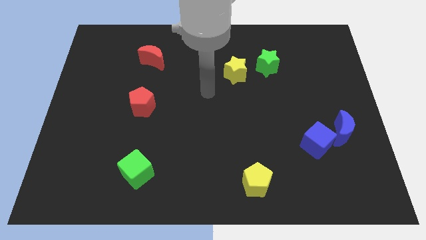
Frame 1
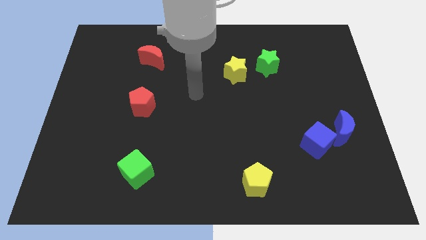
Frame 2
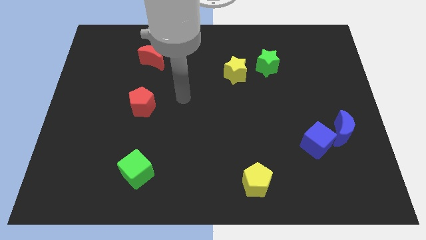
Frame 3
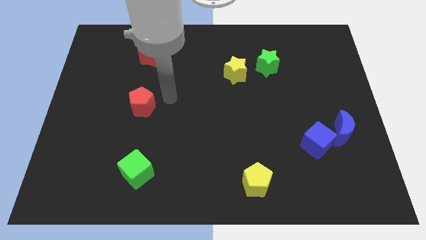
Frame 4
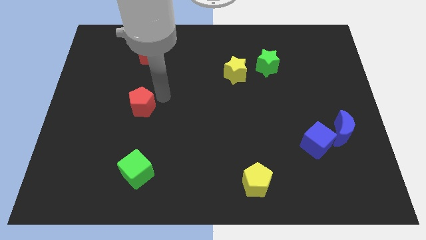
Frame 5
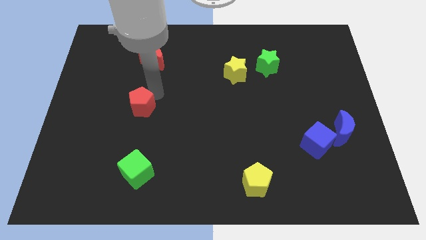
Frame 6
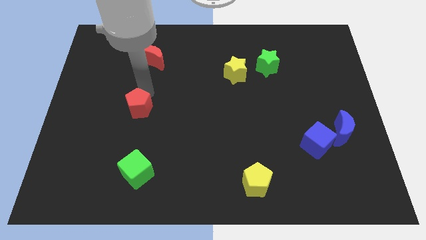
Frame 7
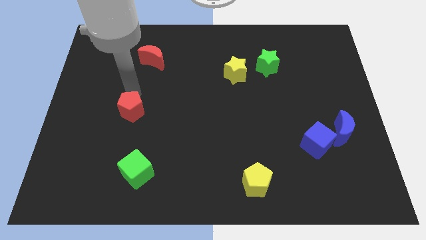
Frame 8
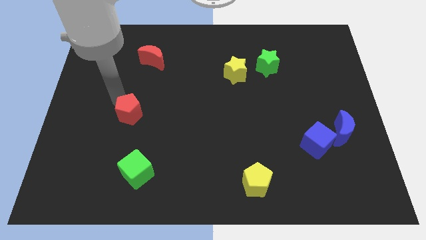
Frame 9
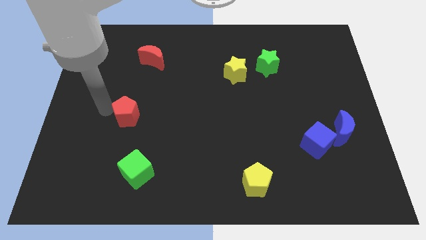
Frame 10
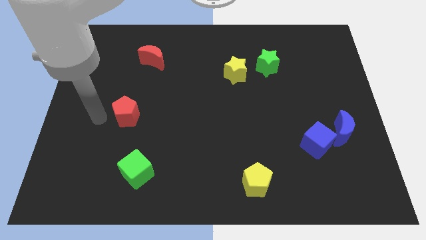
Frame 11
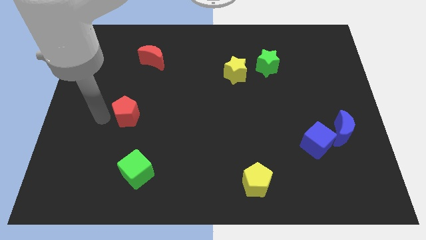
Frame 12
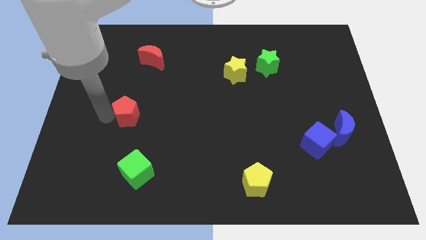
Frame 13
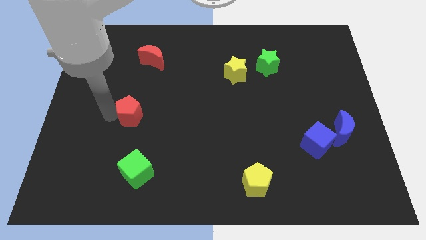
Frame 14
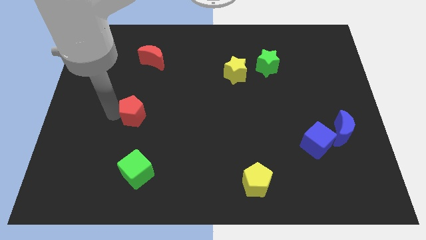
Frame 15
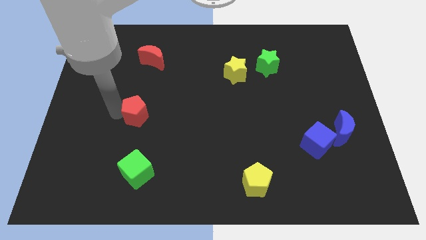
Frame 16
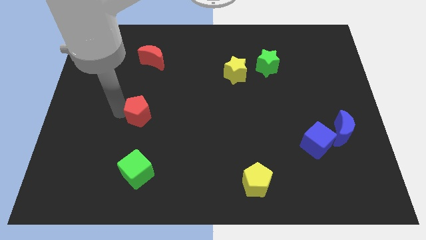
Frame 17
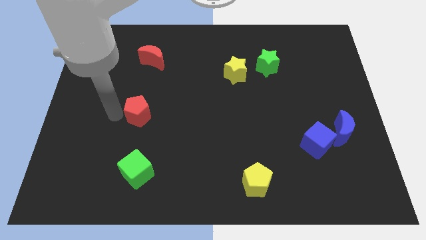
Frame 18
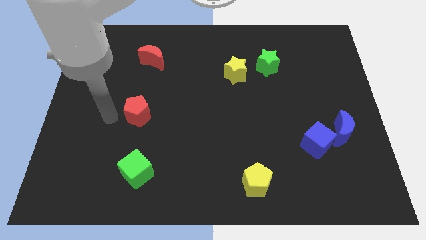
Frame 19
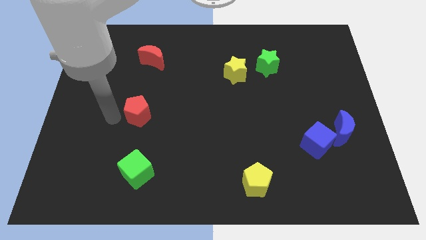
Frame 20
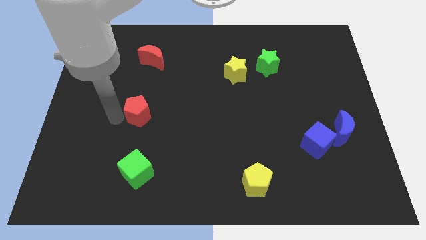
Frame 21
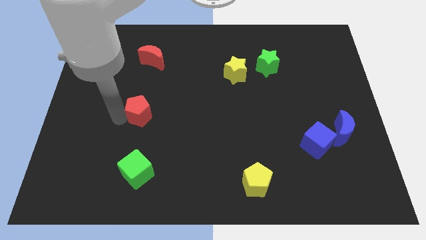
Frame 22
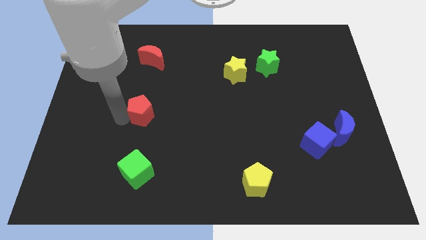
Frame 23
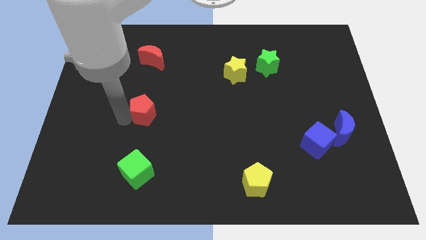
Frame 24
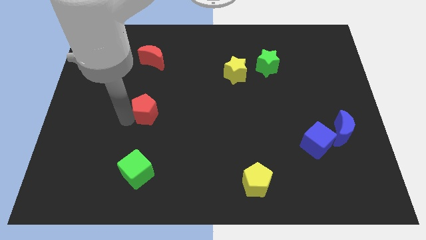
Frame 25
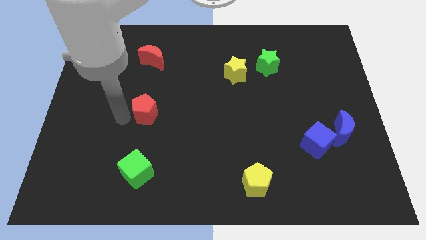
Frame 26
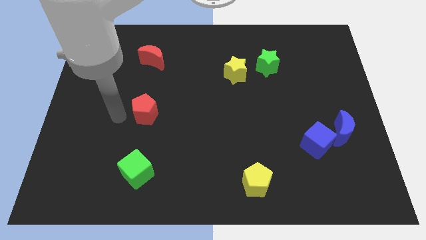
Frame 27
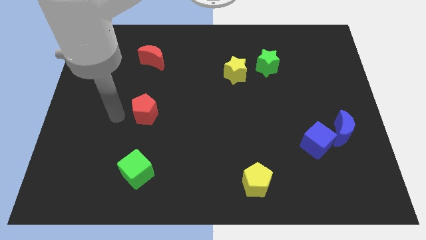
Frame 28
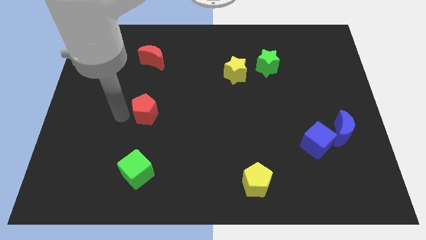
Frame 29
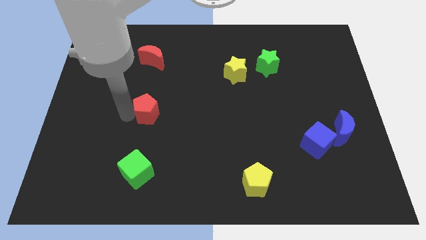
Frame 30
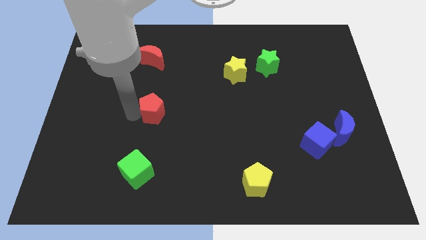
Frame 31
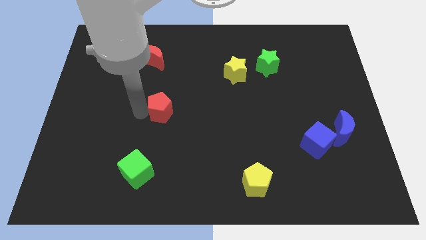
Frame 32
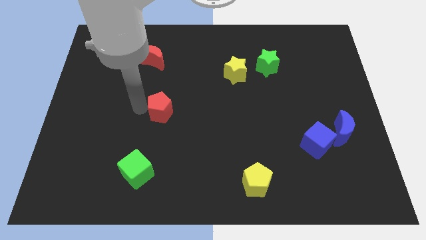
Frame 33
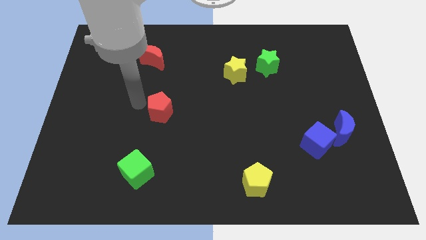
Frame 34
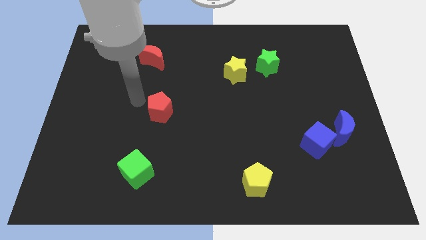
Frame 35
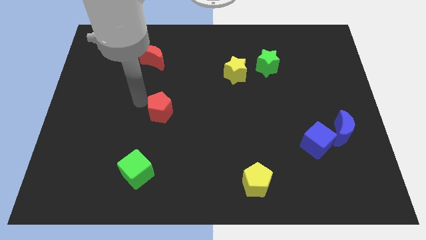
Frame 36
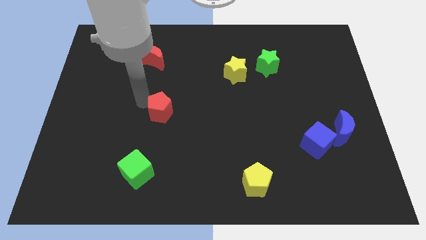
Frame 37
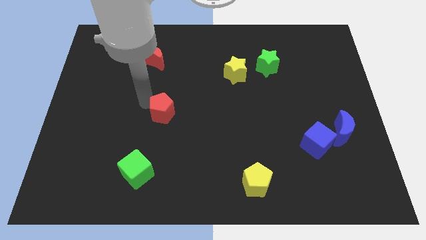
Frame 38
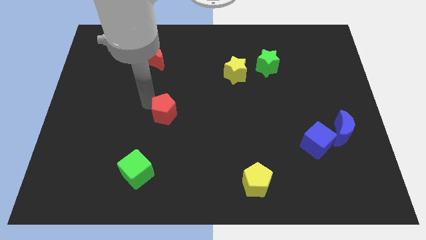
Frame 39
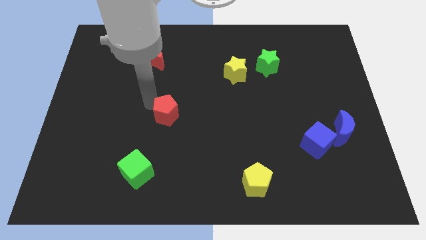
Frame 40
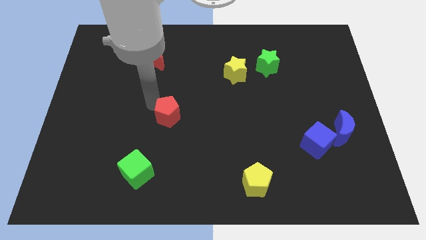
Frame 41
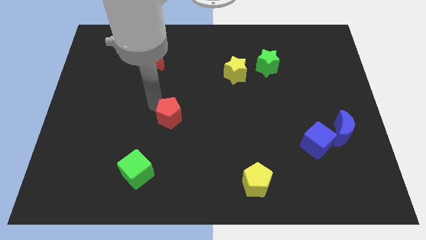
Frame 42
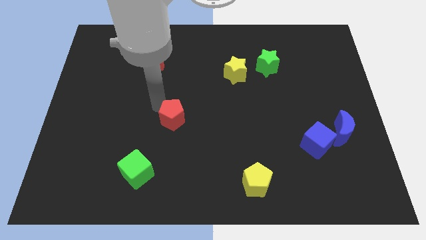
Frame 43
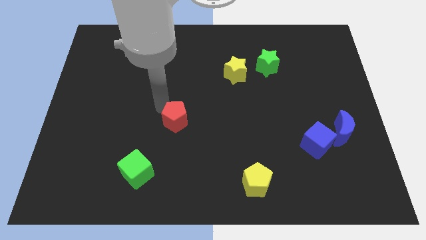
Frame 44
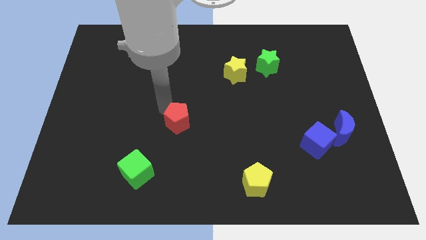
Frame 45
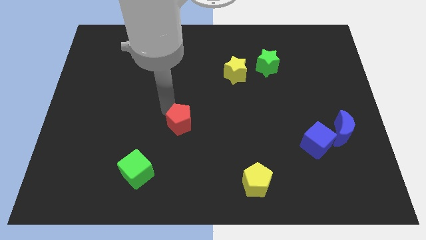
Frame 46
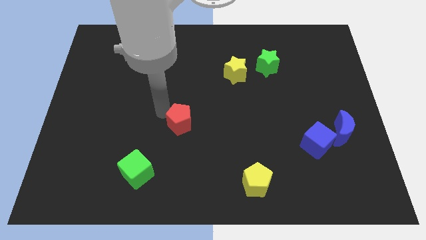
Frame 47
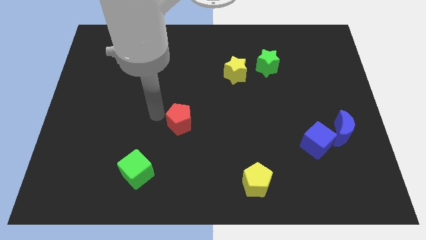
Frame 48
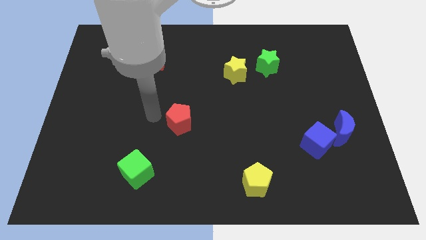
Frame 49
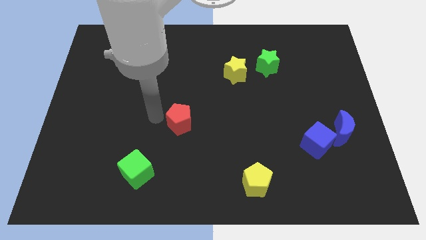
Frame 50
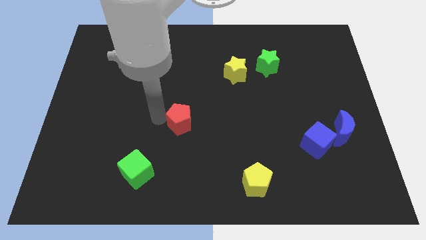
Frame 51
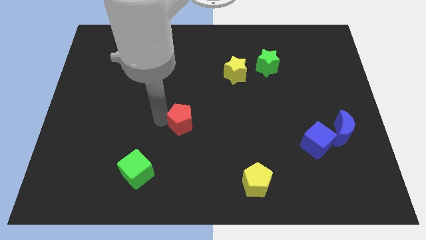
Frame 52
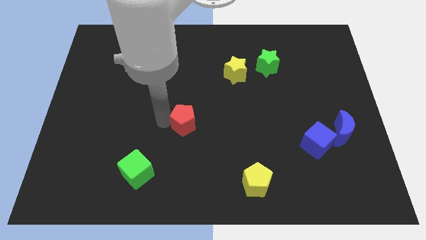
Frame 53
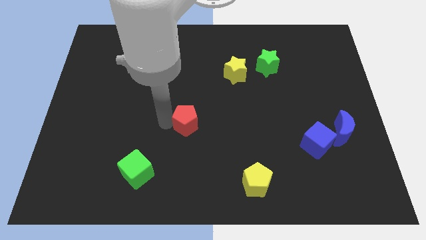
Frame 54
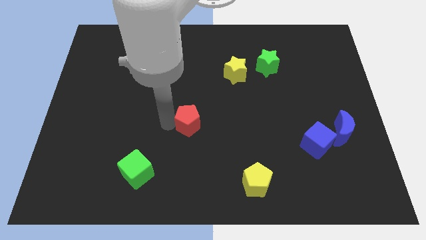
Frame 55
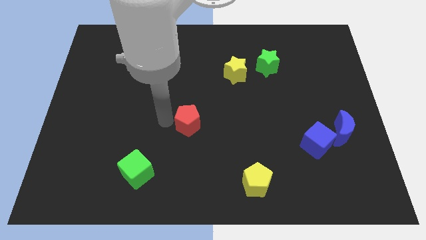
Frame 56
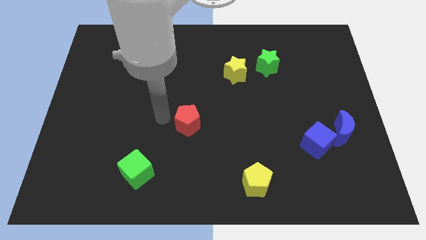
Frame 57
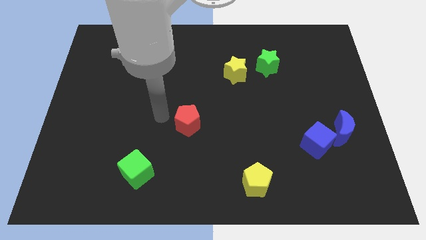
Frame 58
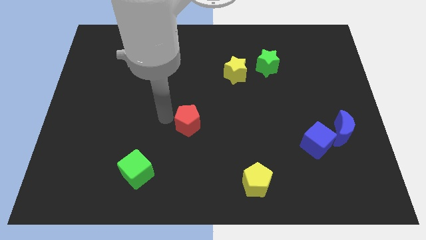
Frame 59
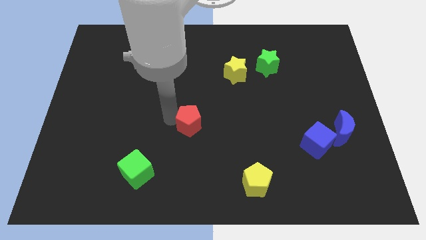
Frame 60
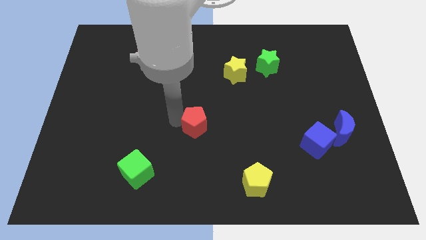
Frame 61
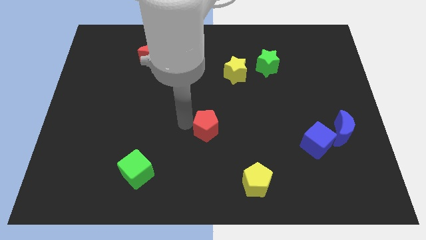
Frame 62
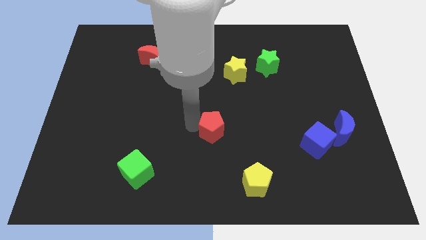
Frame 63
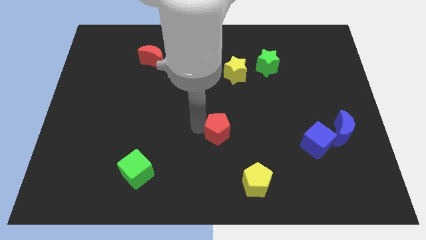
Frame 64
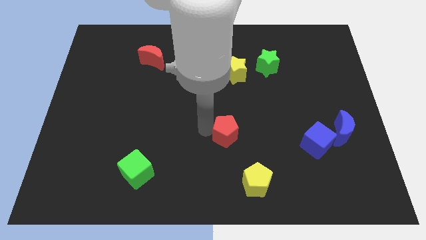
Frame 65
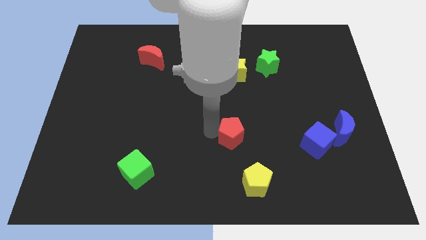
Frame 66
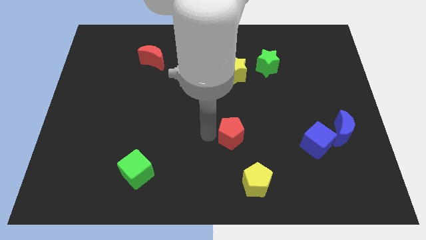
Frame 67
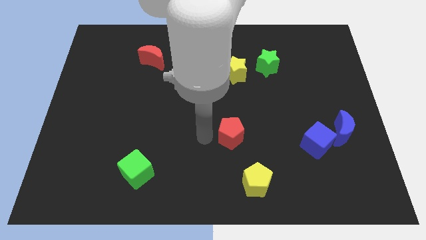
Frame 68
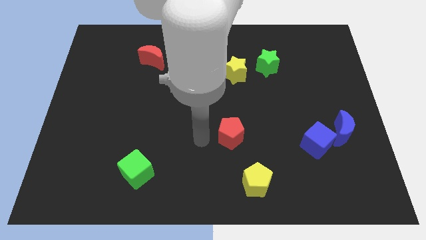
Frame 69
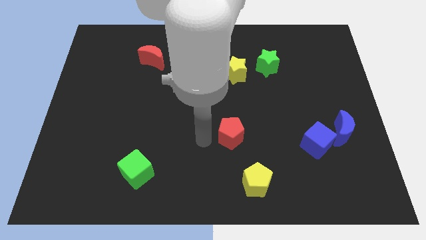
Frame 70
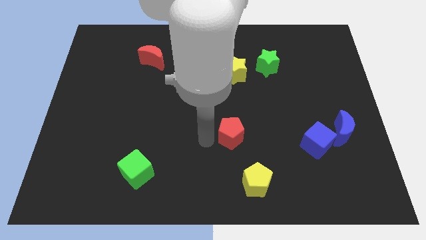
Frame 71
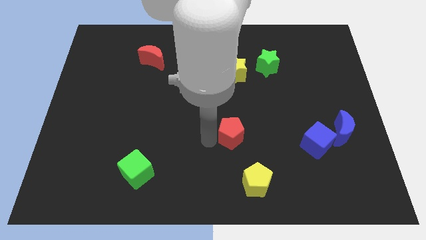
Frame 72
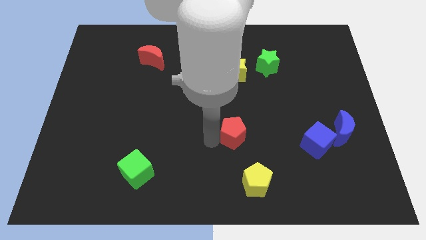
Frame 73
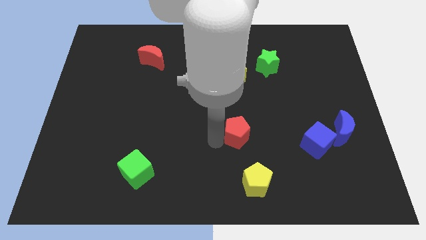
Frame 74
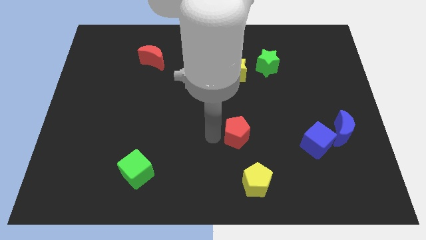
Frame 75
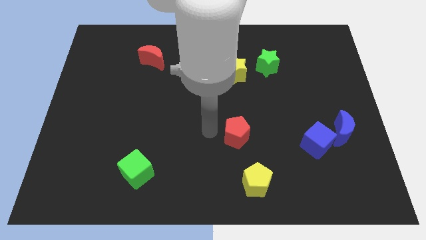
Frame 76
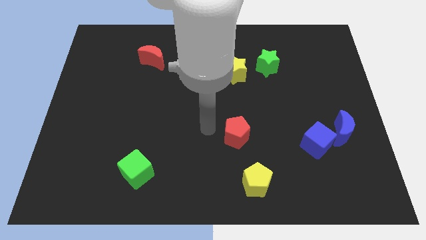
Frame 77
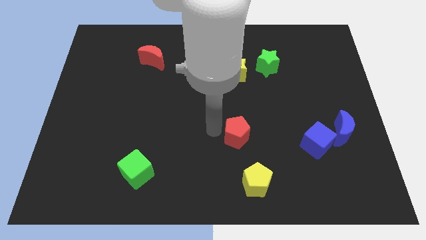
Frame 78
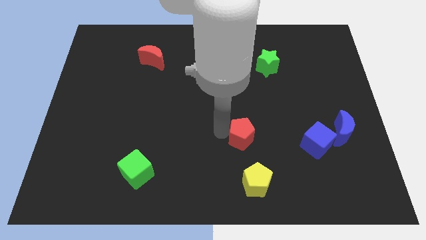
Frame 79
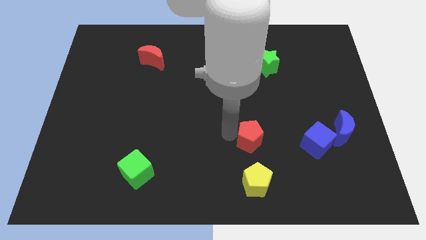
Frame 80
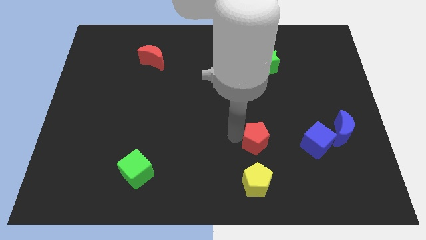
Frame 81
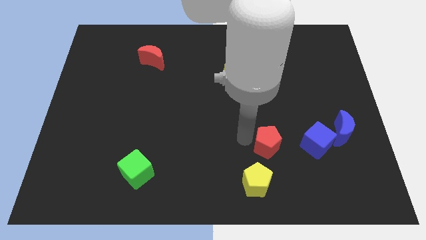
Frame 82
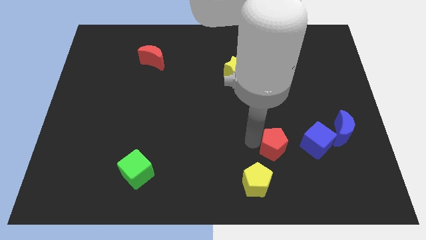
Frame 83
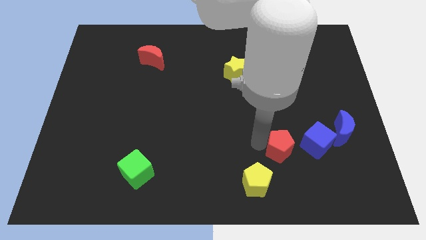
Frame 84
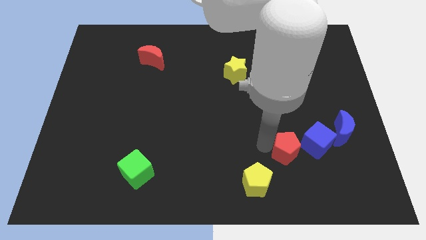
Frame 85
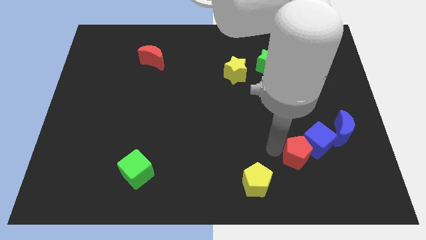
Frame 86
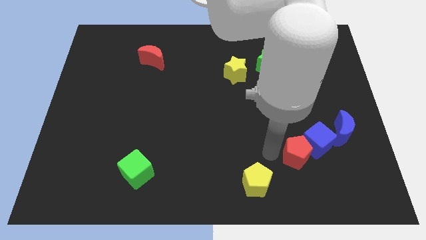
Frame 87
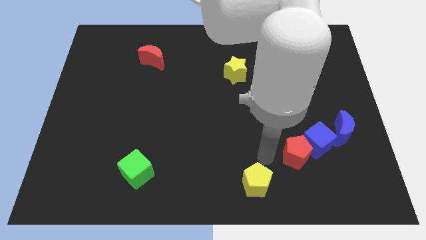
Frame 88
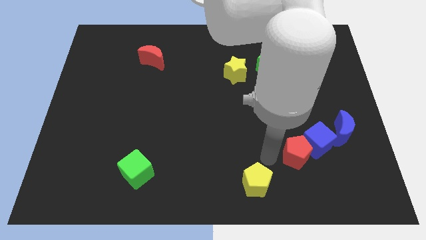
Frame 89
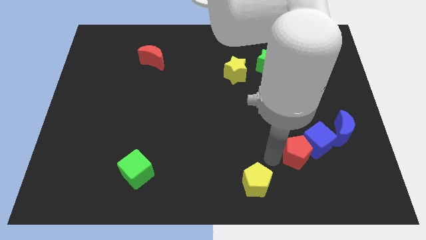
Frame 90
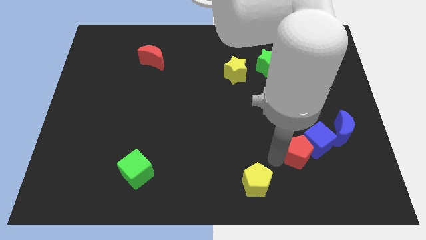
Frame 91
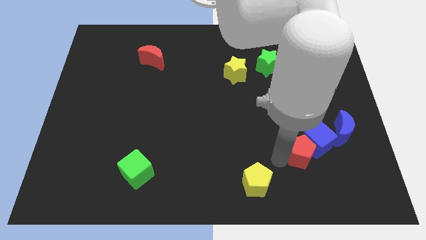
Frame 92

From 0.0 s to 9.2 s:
move the red pentagon diagonally down and to the left of the blue moon
